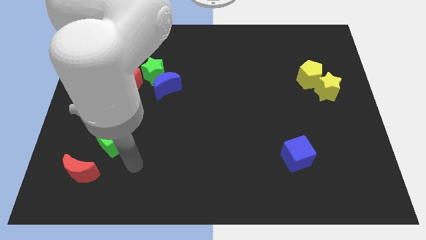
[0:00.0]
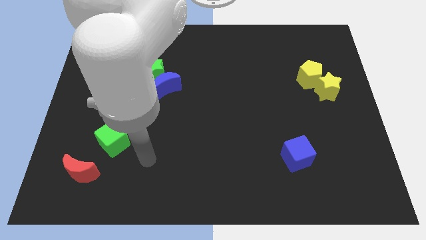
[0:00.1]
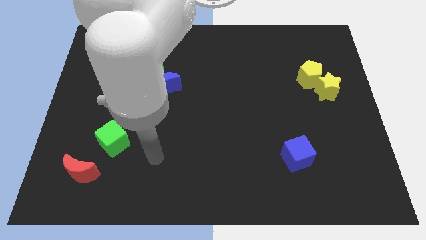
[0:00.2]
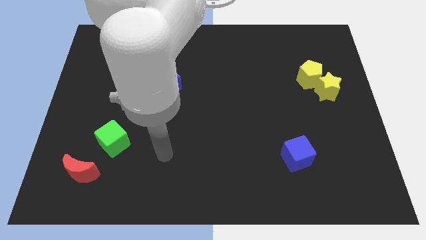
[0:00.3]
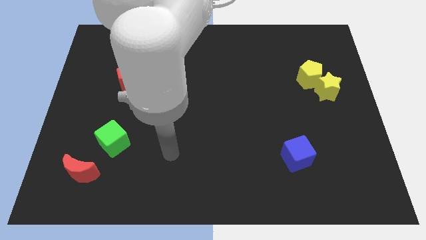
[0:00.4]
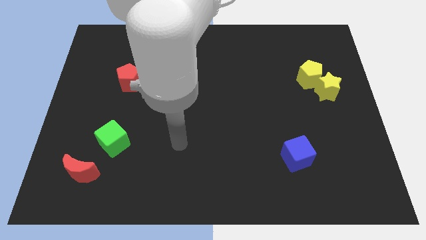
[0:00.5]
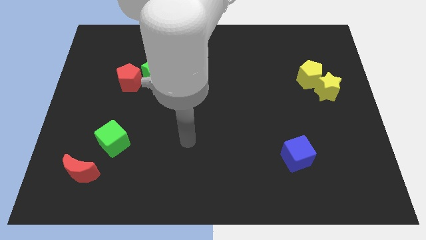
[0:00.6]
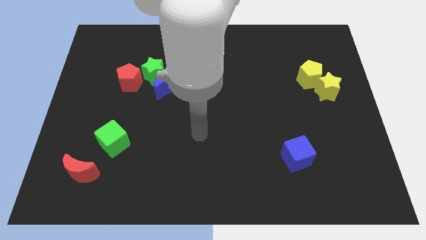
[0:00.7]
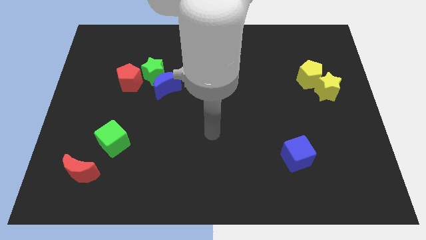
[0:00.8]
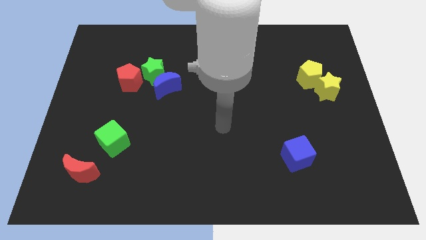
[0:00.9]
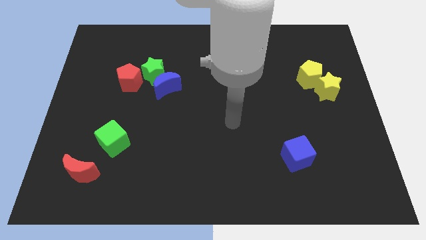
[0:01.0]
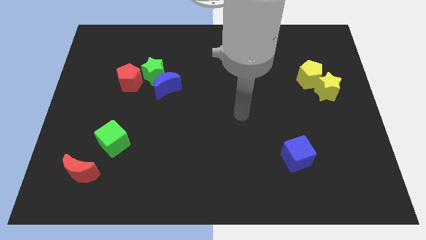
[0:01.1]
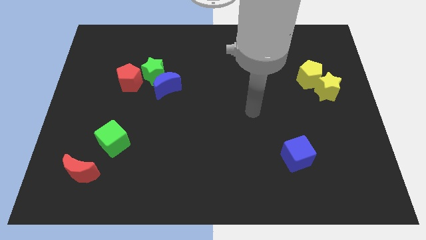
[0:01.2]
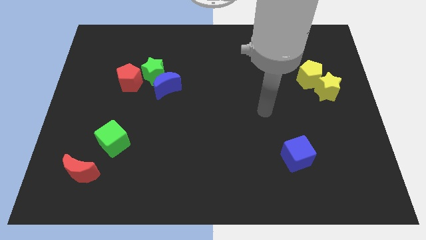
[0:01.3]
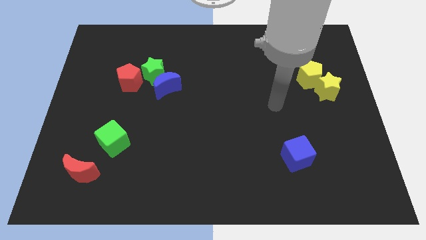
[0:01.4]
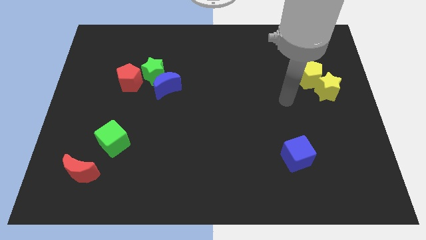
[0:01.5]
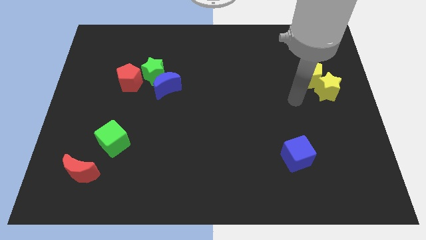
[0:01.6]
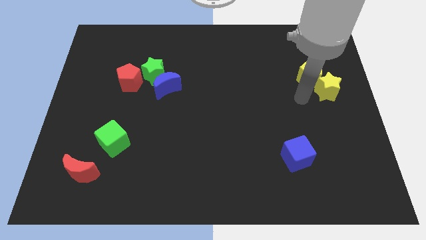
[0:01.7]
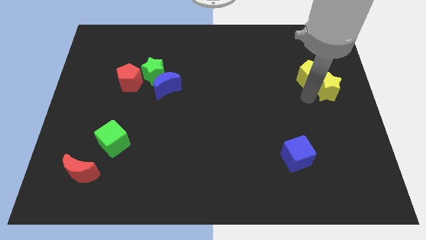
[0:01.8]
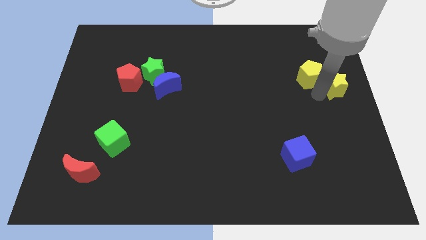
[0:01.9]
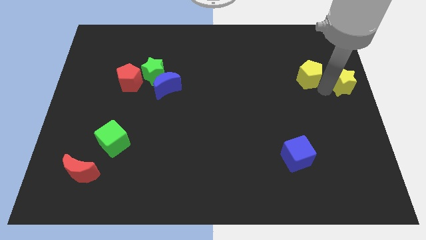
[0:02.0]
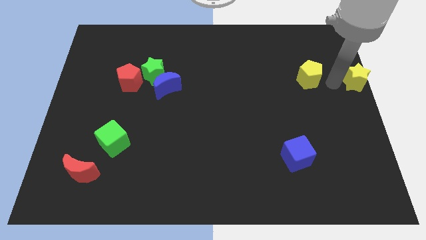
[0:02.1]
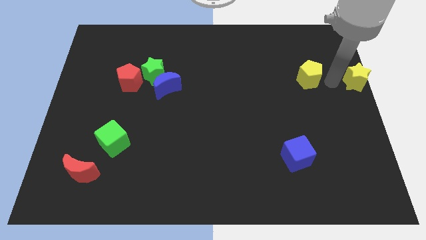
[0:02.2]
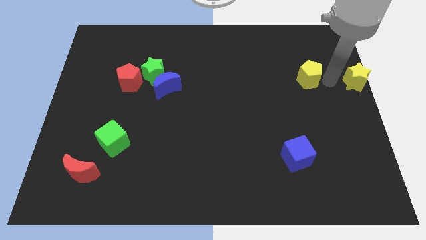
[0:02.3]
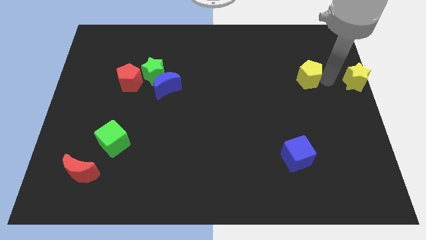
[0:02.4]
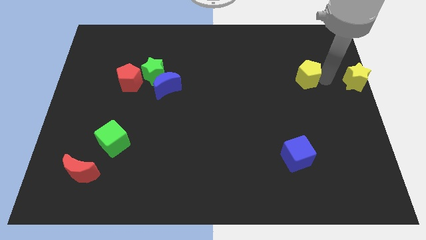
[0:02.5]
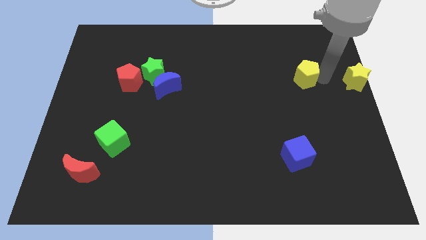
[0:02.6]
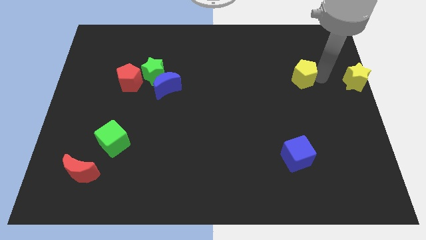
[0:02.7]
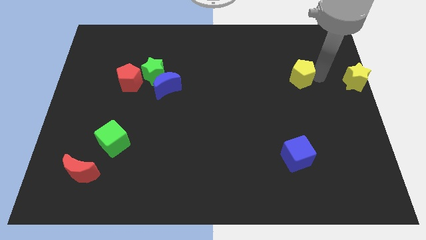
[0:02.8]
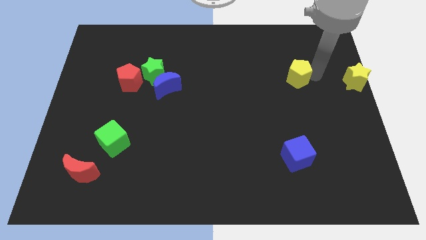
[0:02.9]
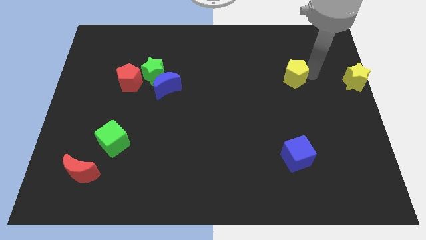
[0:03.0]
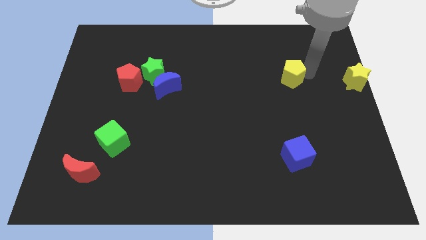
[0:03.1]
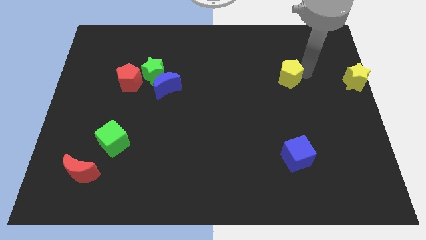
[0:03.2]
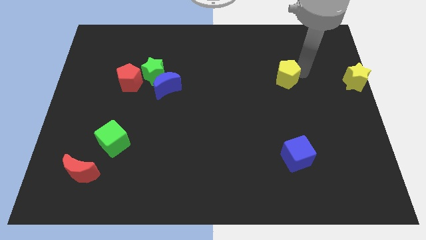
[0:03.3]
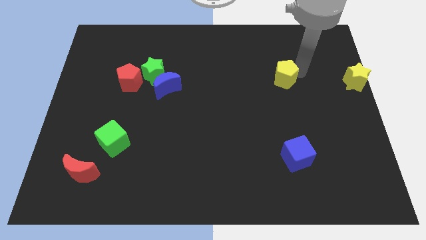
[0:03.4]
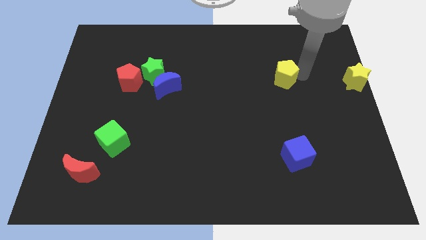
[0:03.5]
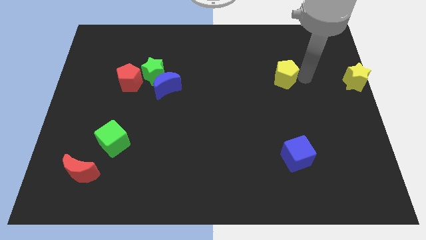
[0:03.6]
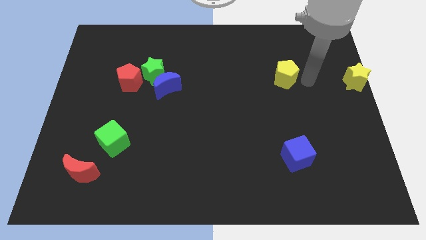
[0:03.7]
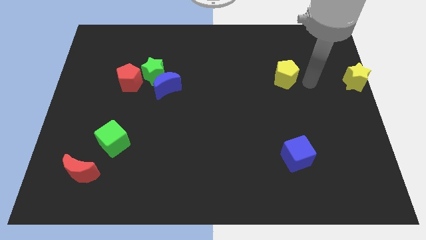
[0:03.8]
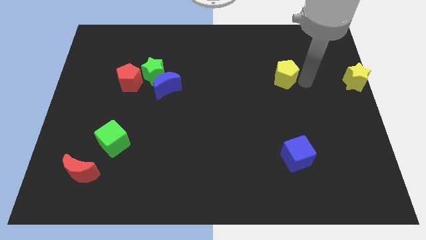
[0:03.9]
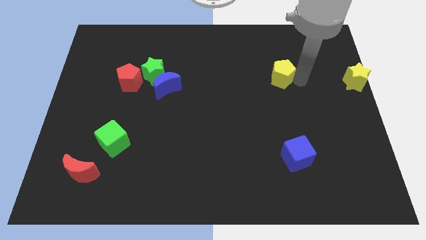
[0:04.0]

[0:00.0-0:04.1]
move the yellow pentagon a little bit to the left

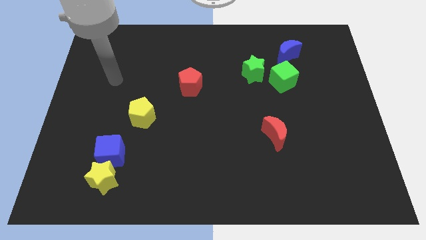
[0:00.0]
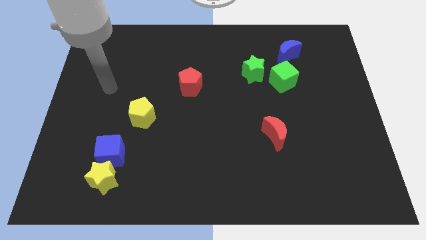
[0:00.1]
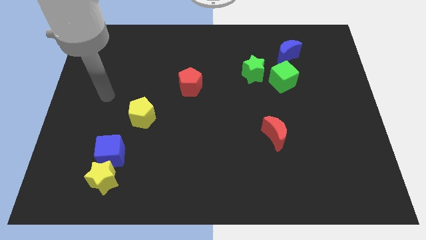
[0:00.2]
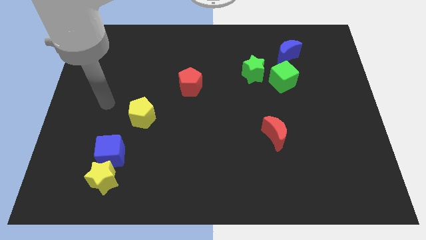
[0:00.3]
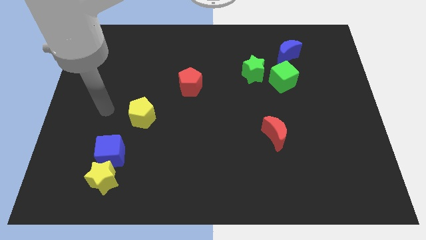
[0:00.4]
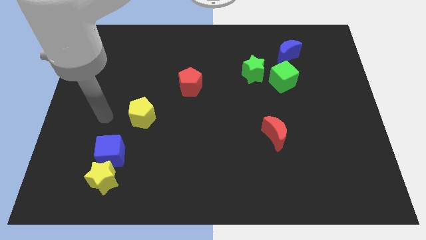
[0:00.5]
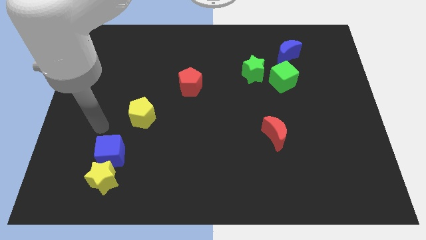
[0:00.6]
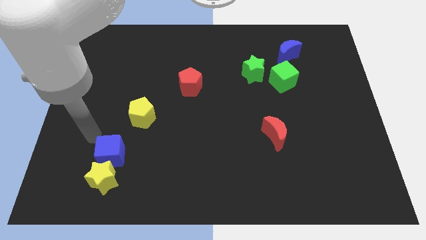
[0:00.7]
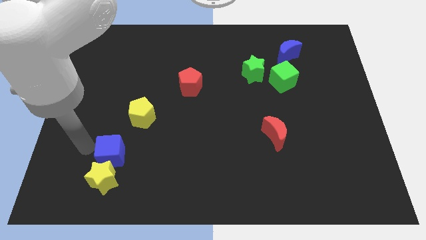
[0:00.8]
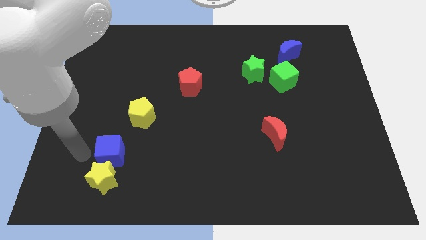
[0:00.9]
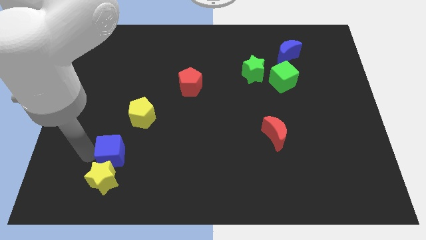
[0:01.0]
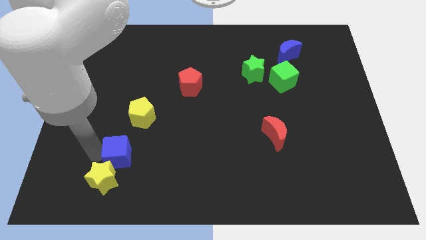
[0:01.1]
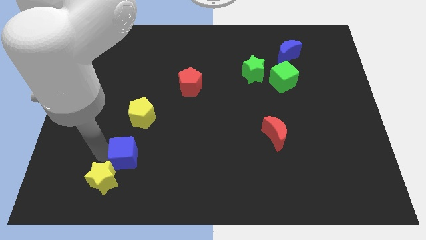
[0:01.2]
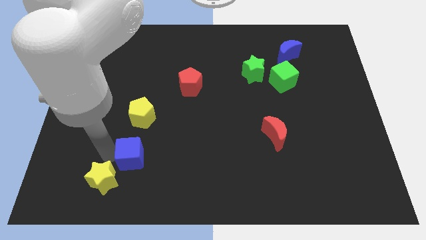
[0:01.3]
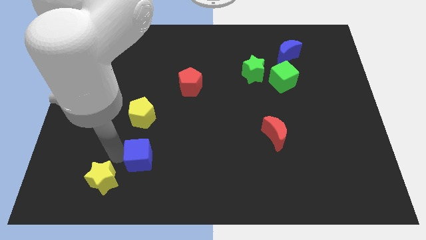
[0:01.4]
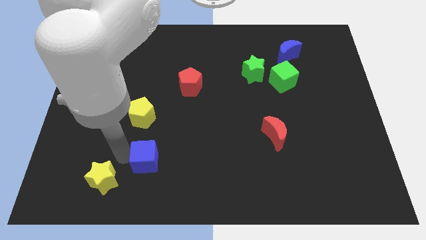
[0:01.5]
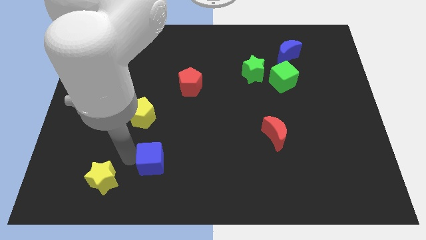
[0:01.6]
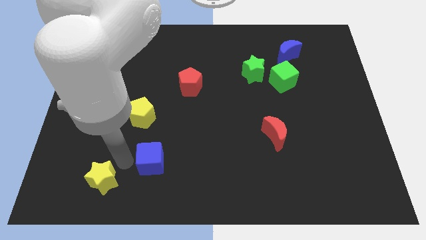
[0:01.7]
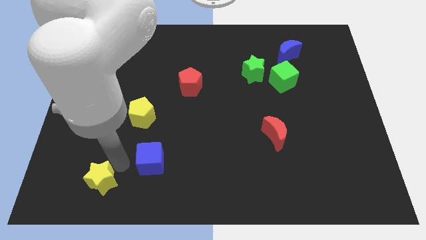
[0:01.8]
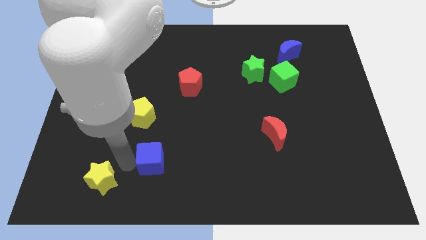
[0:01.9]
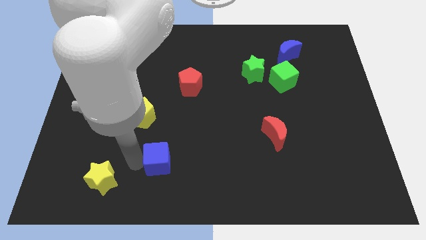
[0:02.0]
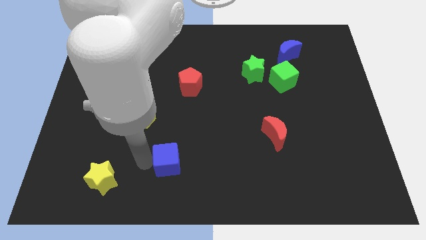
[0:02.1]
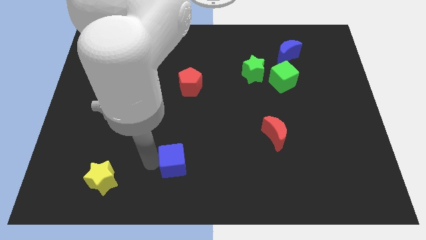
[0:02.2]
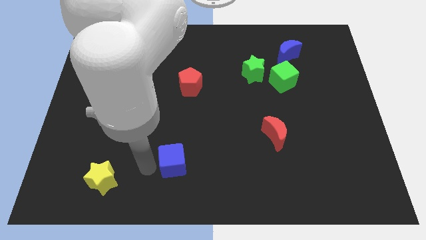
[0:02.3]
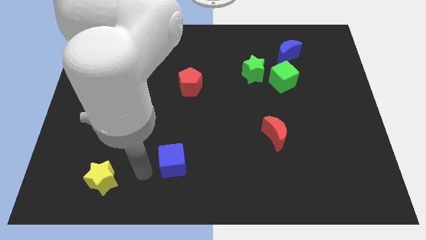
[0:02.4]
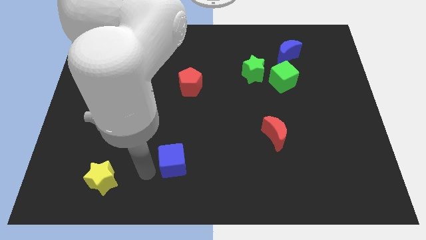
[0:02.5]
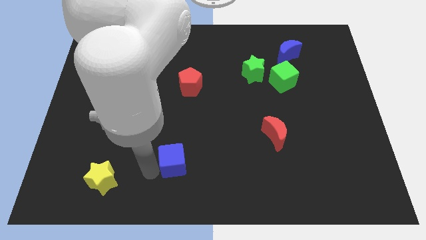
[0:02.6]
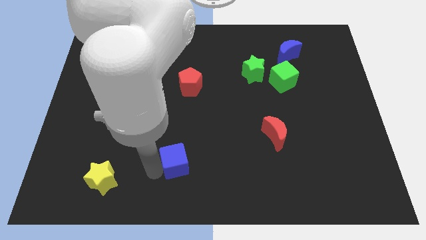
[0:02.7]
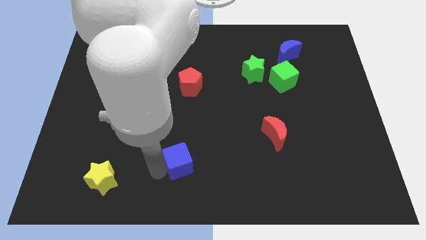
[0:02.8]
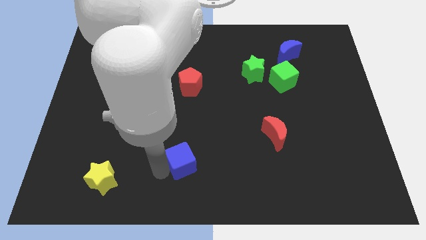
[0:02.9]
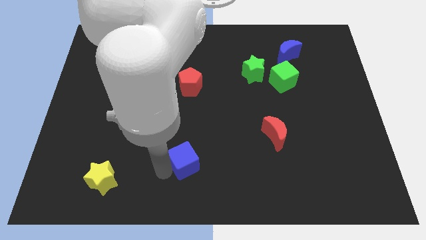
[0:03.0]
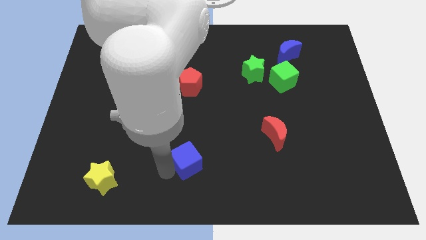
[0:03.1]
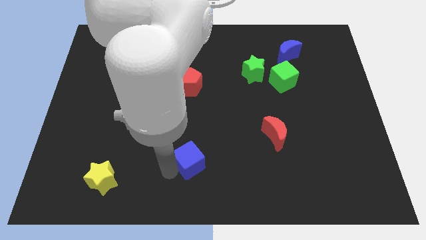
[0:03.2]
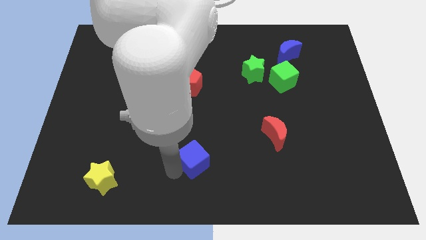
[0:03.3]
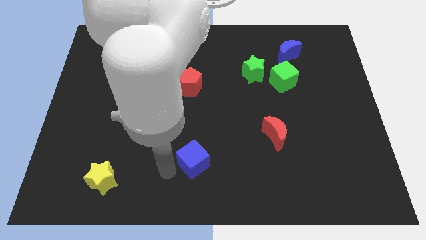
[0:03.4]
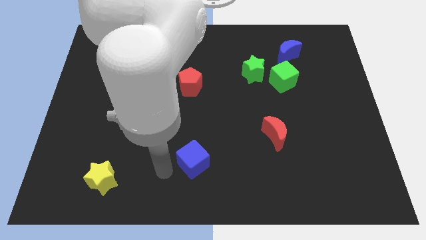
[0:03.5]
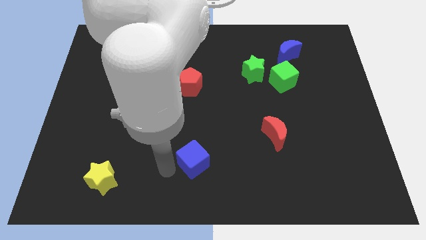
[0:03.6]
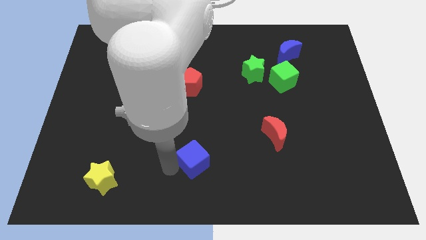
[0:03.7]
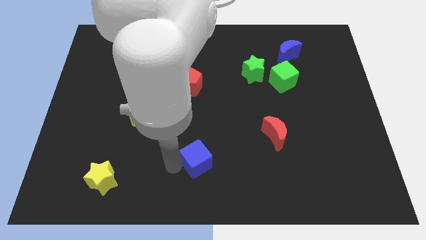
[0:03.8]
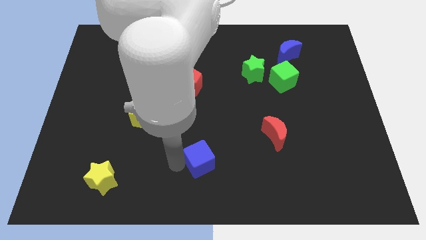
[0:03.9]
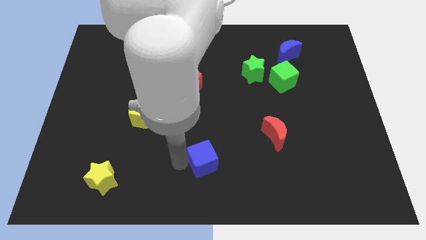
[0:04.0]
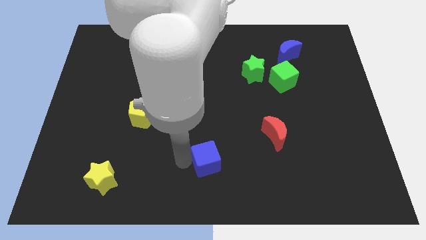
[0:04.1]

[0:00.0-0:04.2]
move the blue cube to the right
